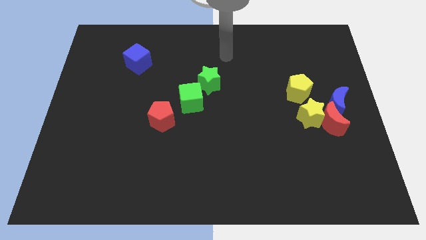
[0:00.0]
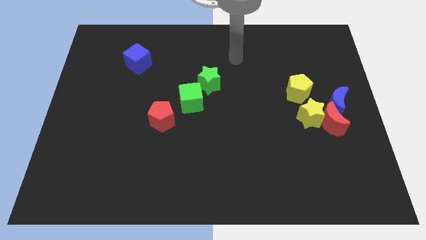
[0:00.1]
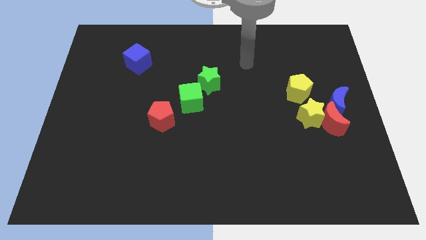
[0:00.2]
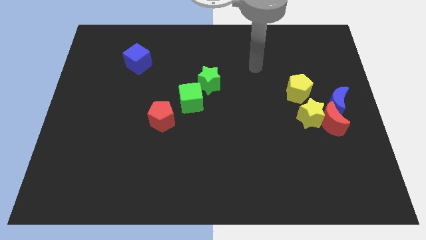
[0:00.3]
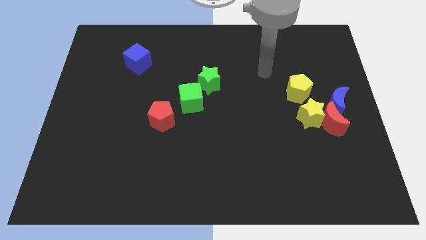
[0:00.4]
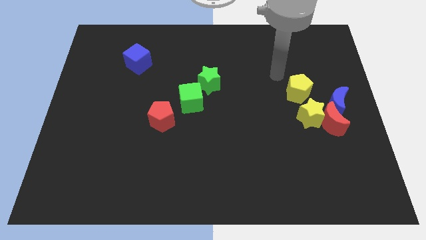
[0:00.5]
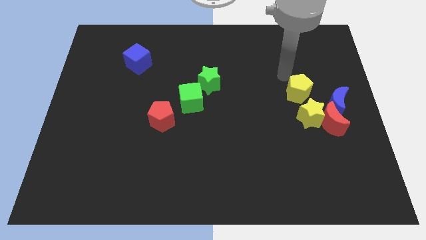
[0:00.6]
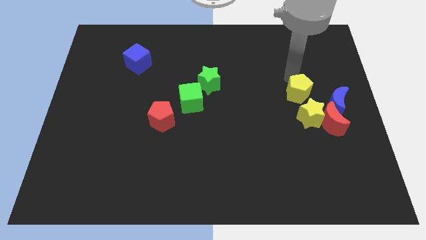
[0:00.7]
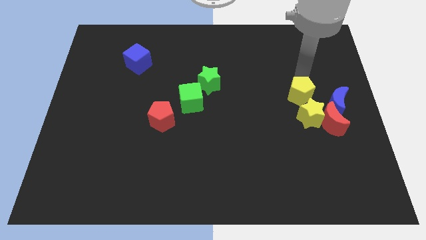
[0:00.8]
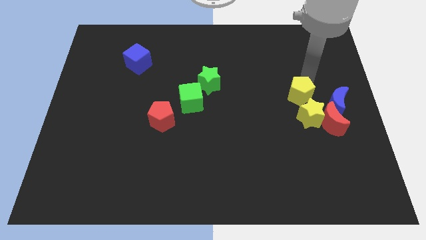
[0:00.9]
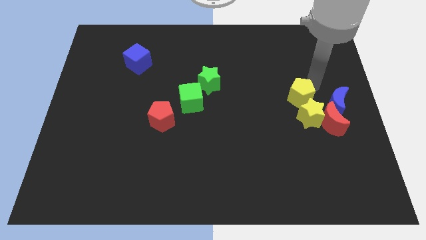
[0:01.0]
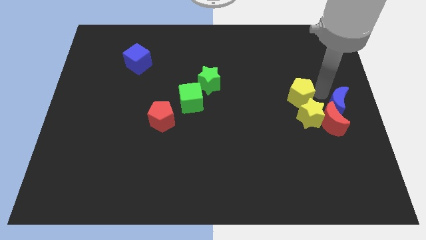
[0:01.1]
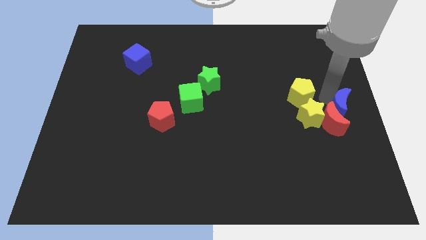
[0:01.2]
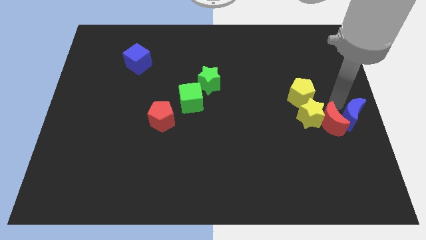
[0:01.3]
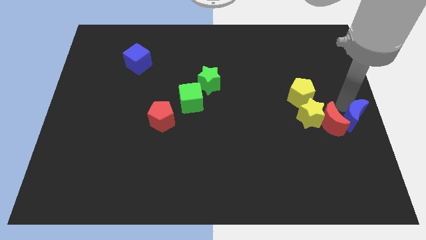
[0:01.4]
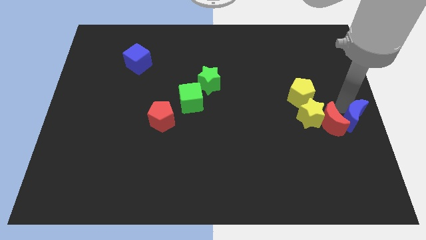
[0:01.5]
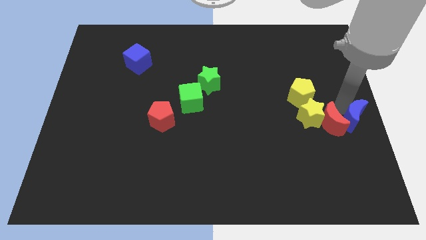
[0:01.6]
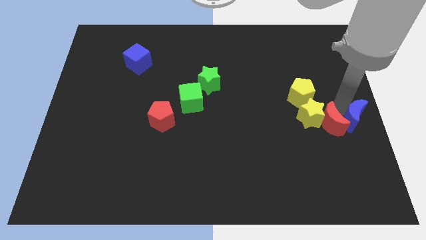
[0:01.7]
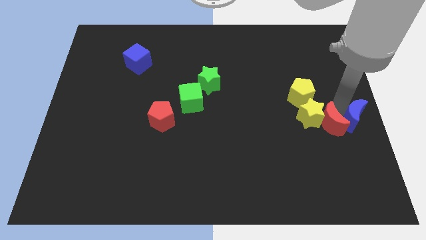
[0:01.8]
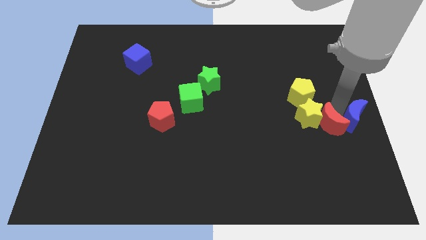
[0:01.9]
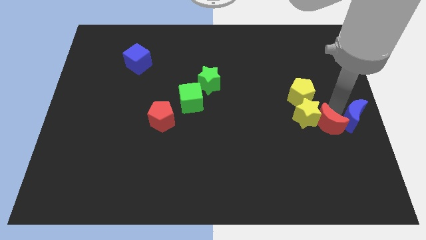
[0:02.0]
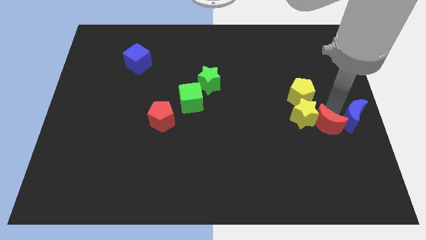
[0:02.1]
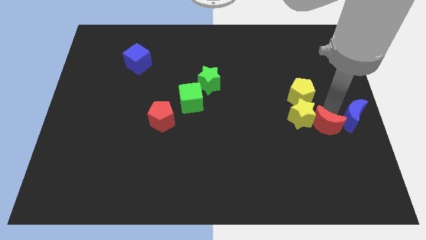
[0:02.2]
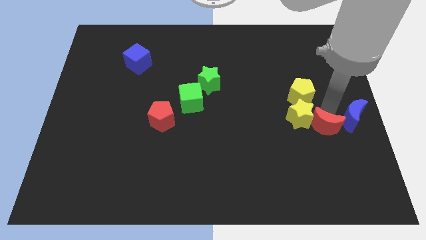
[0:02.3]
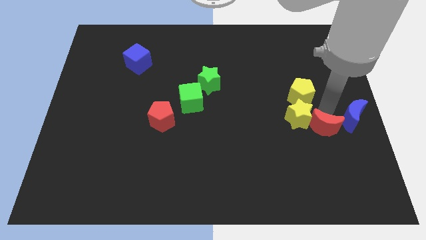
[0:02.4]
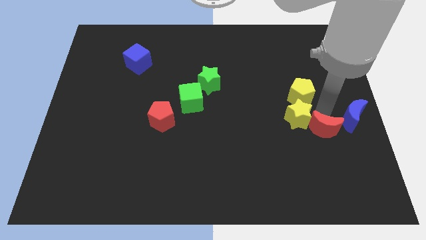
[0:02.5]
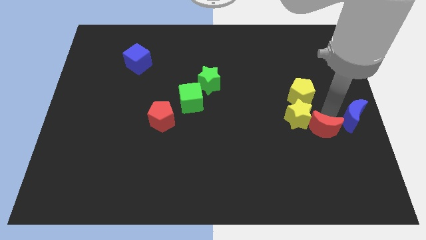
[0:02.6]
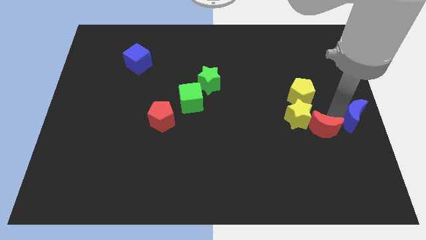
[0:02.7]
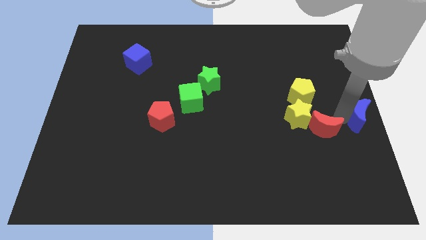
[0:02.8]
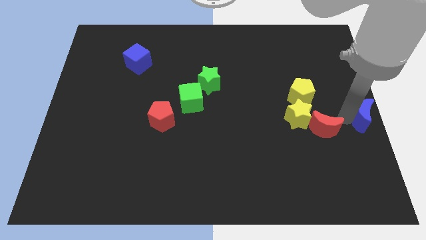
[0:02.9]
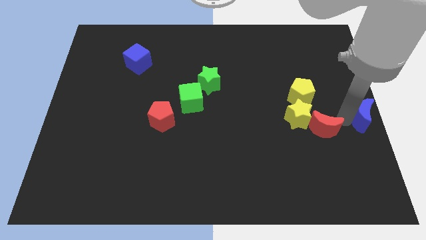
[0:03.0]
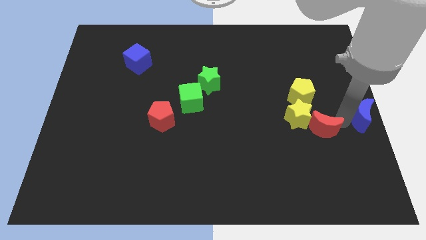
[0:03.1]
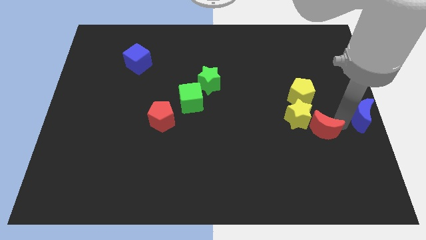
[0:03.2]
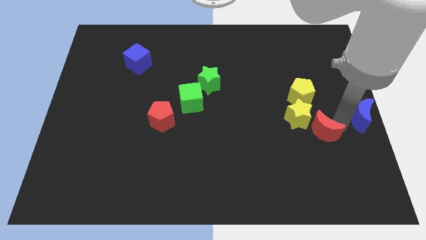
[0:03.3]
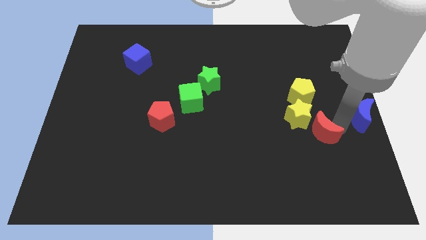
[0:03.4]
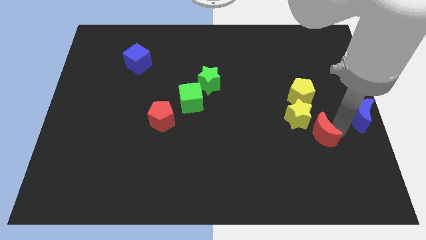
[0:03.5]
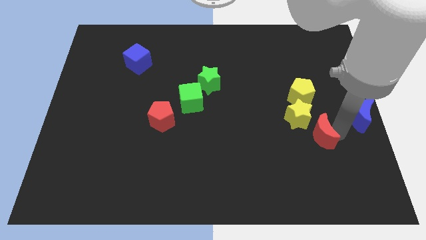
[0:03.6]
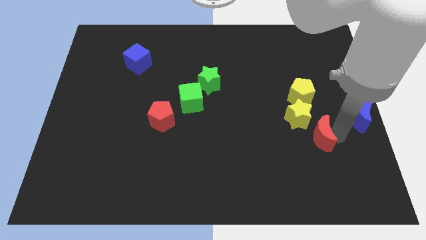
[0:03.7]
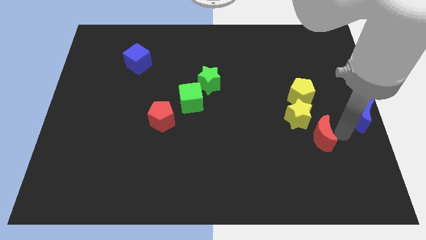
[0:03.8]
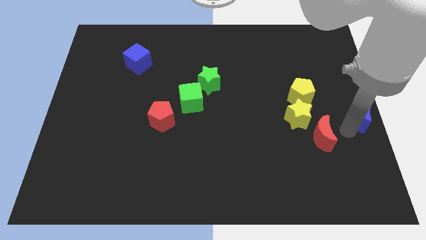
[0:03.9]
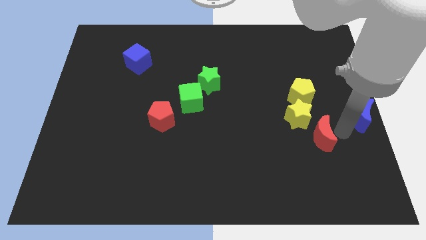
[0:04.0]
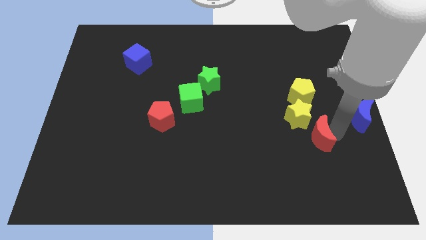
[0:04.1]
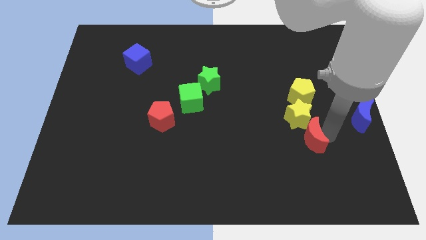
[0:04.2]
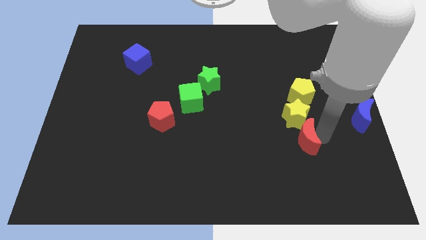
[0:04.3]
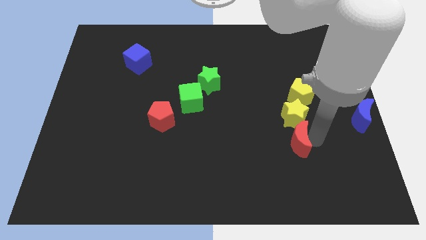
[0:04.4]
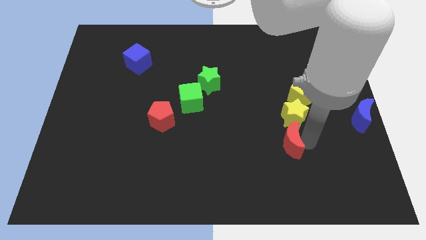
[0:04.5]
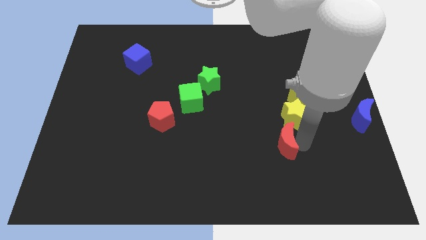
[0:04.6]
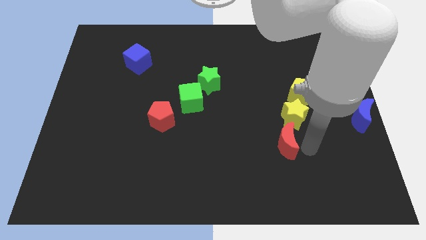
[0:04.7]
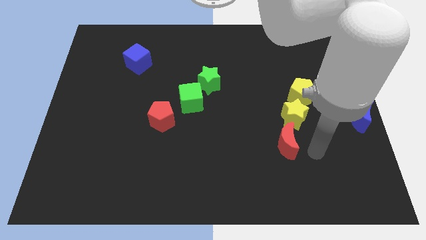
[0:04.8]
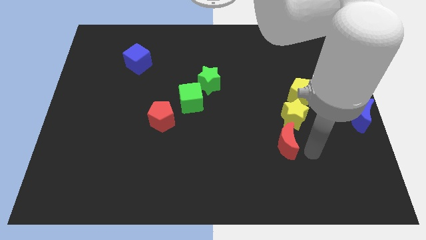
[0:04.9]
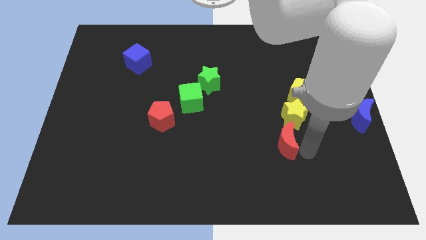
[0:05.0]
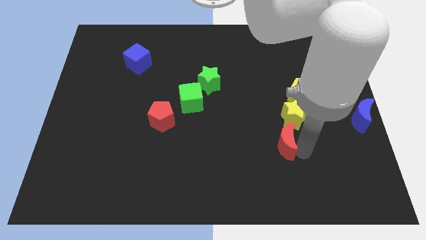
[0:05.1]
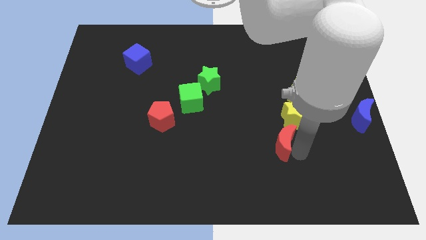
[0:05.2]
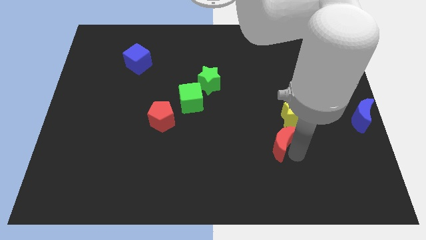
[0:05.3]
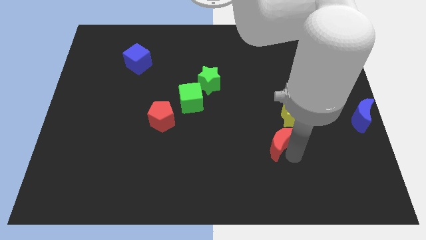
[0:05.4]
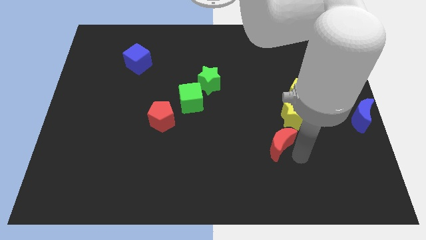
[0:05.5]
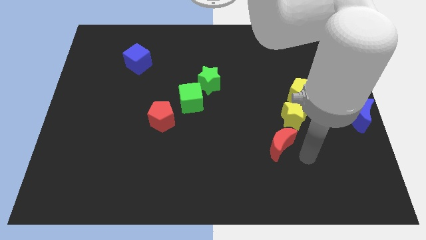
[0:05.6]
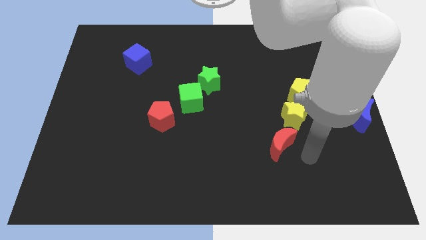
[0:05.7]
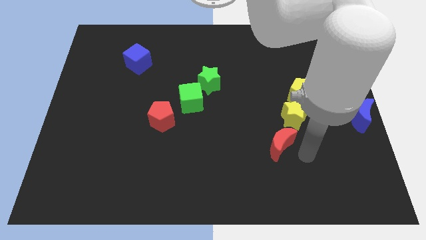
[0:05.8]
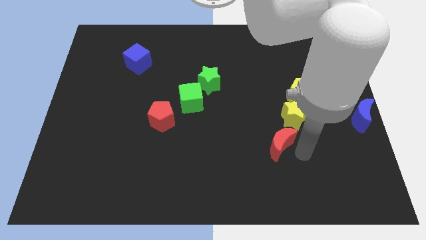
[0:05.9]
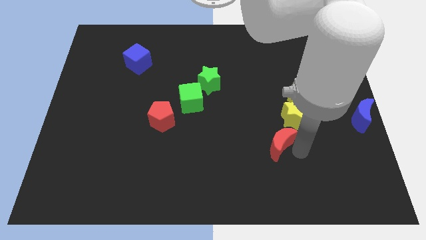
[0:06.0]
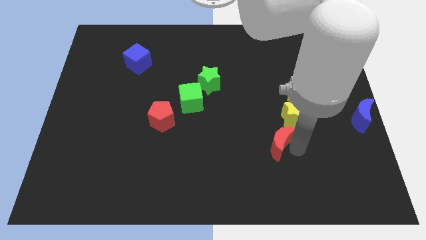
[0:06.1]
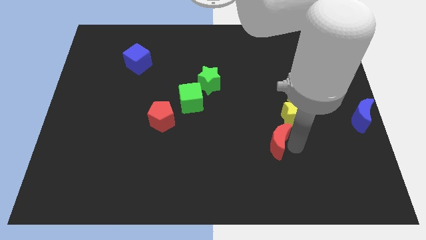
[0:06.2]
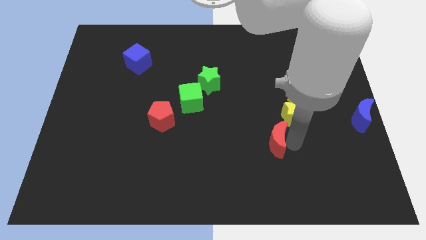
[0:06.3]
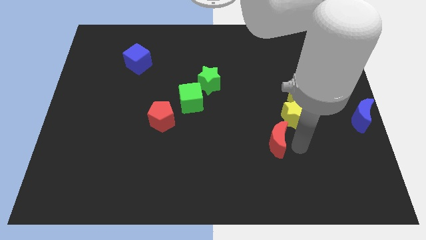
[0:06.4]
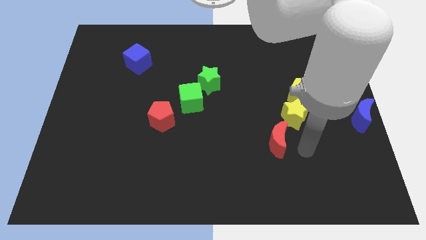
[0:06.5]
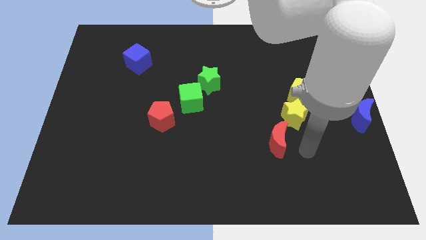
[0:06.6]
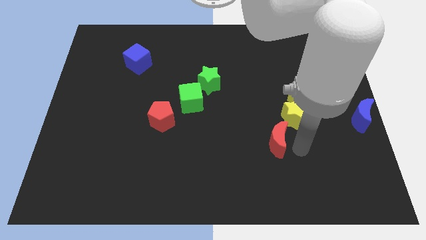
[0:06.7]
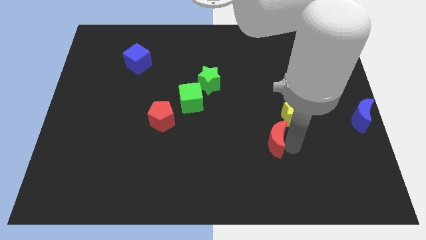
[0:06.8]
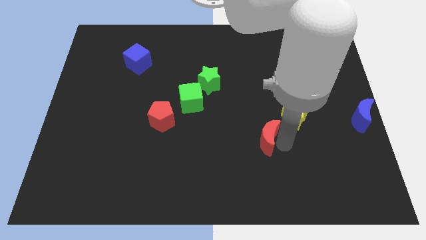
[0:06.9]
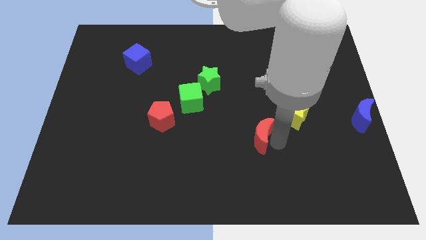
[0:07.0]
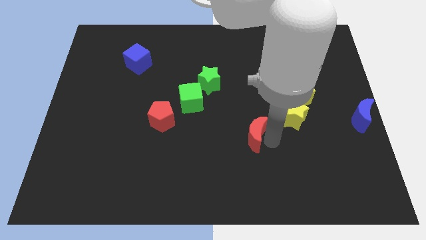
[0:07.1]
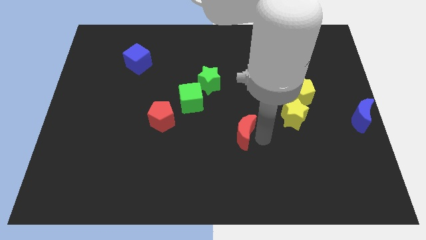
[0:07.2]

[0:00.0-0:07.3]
move the red moon left

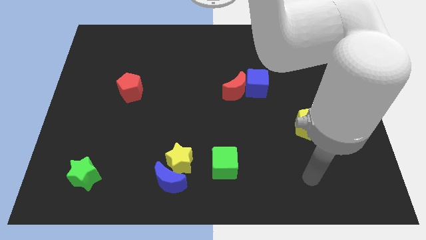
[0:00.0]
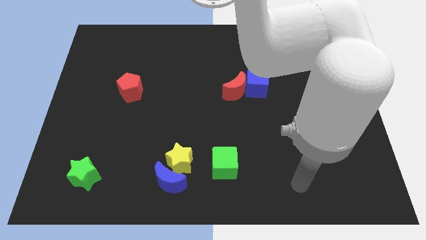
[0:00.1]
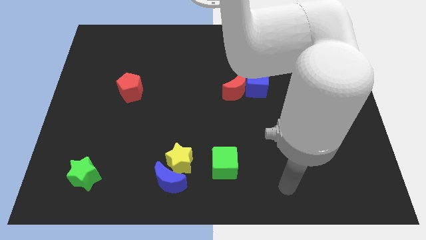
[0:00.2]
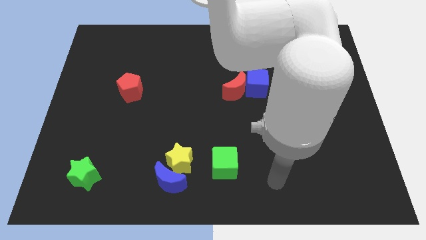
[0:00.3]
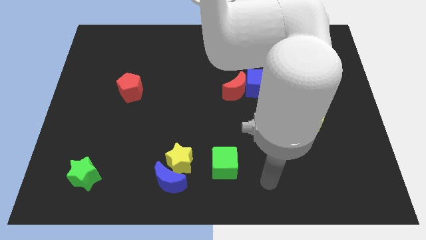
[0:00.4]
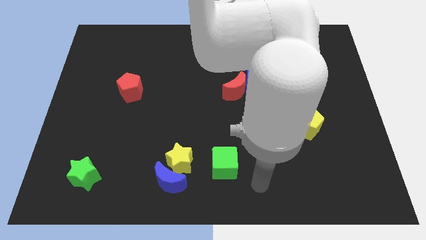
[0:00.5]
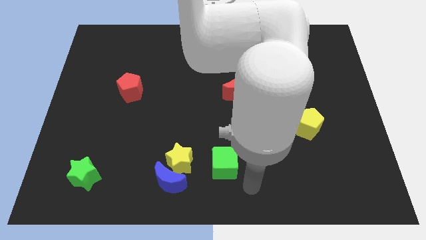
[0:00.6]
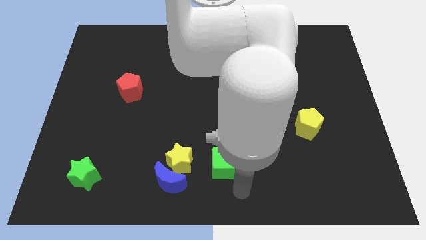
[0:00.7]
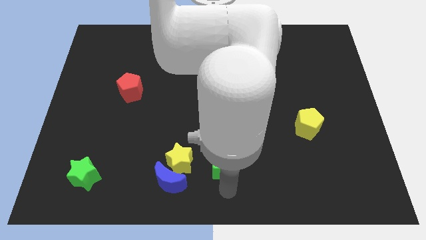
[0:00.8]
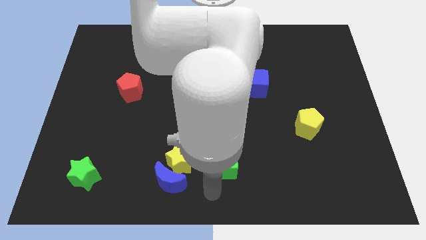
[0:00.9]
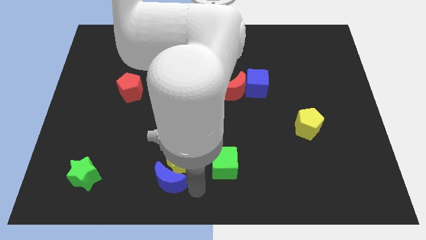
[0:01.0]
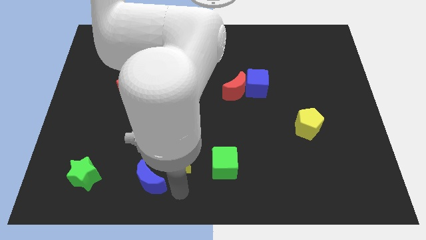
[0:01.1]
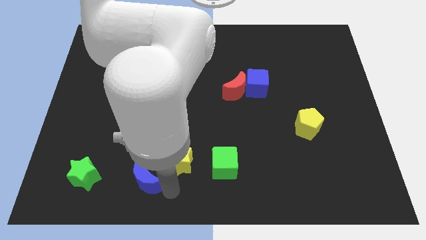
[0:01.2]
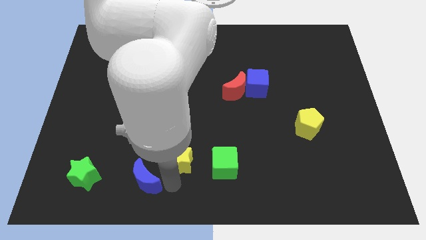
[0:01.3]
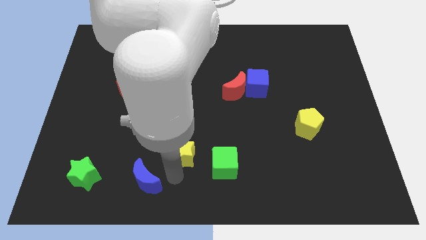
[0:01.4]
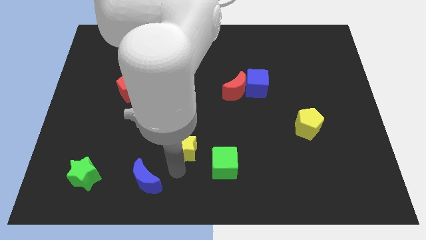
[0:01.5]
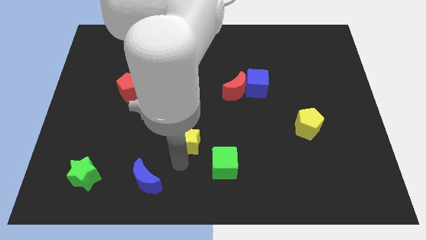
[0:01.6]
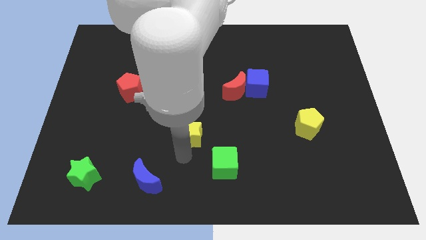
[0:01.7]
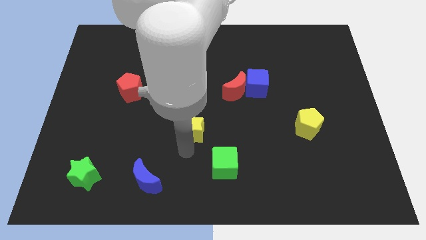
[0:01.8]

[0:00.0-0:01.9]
push the yellow star a little upwards
